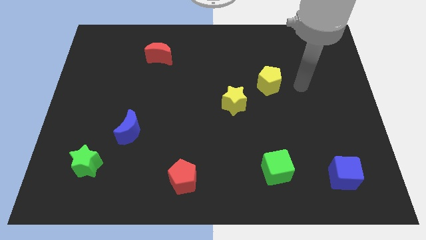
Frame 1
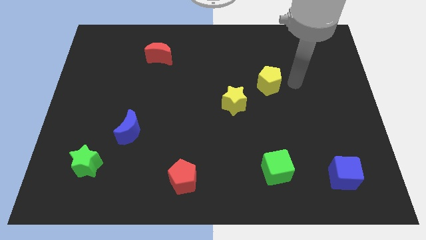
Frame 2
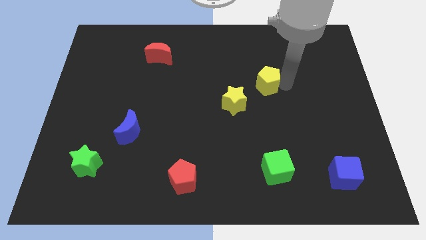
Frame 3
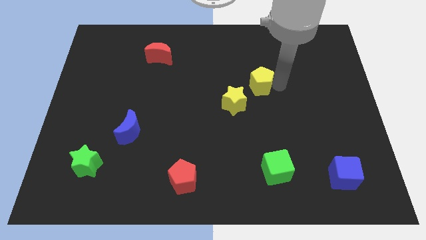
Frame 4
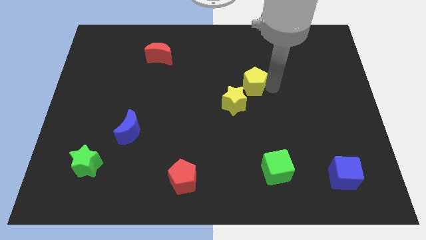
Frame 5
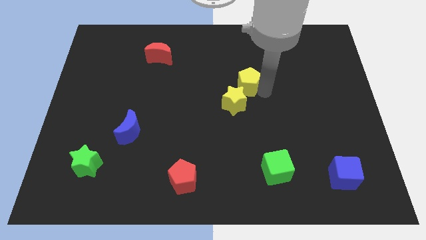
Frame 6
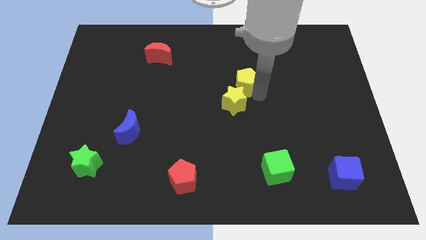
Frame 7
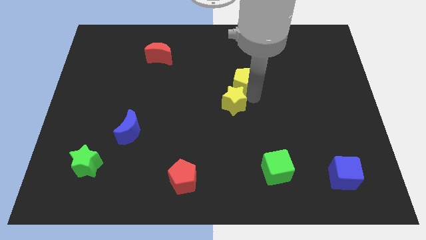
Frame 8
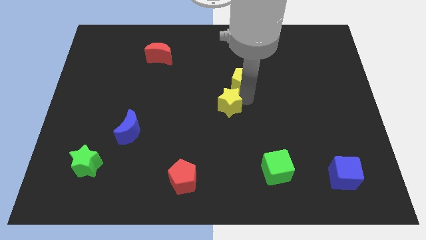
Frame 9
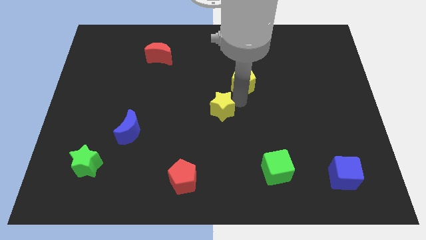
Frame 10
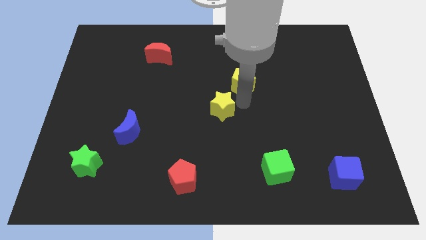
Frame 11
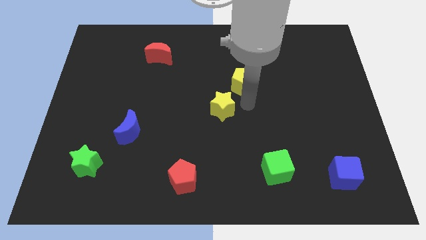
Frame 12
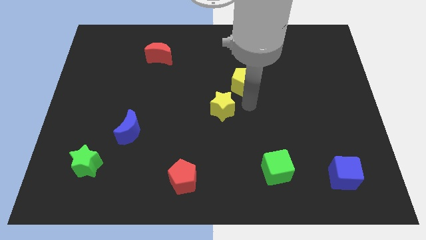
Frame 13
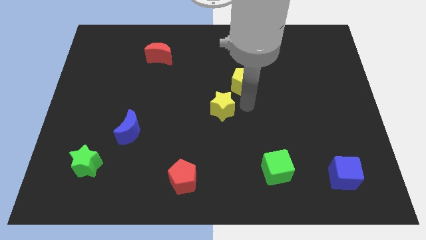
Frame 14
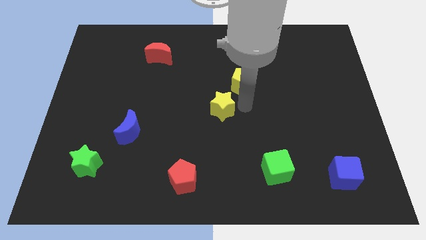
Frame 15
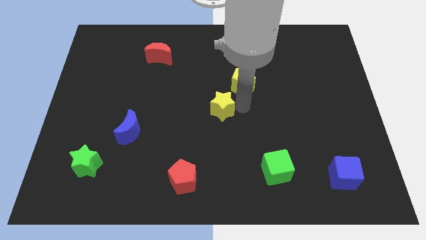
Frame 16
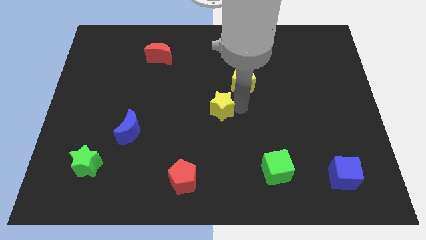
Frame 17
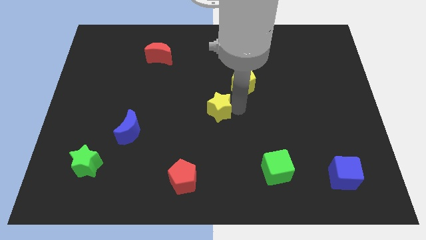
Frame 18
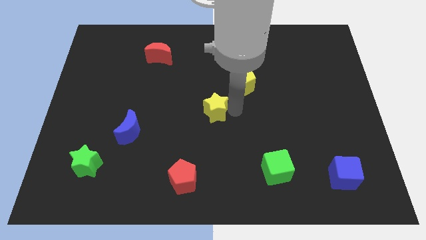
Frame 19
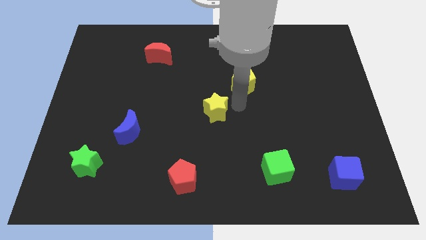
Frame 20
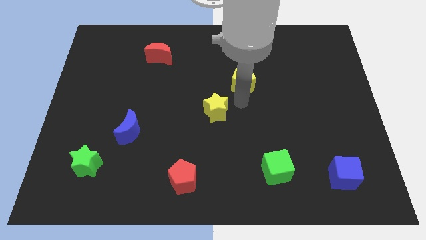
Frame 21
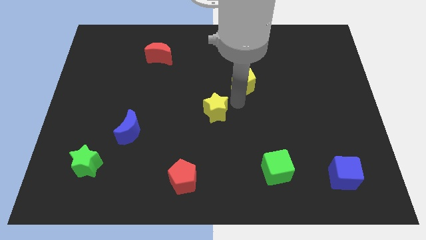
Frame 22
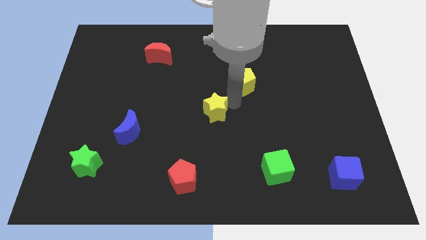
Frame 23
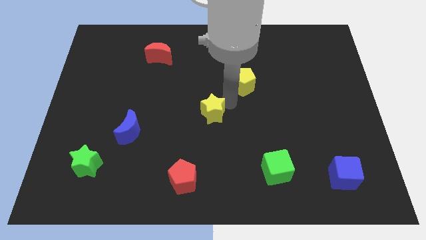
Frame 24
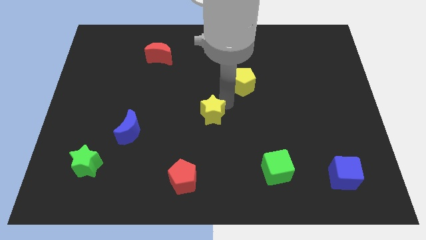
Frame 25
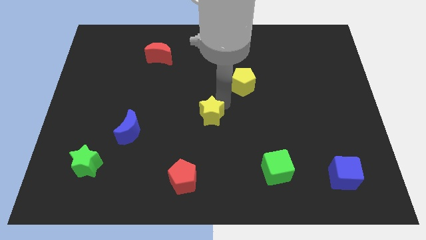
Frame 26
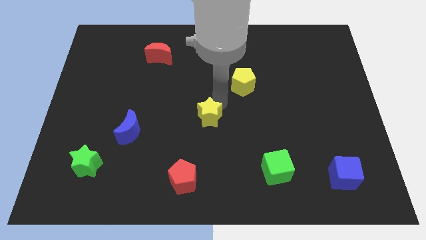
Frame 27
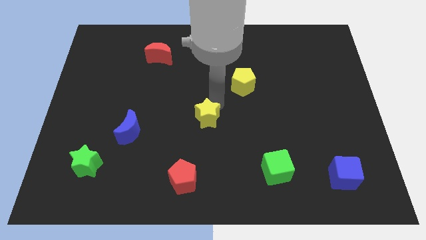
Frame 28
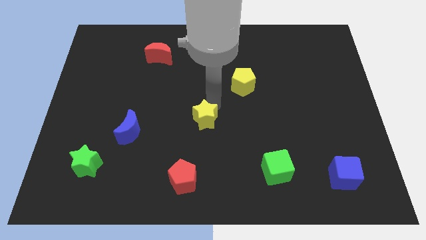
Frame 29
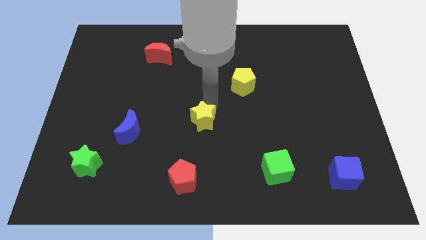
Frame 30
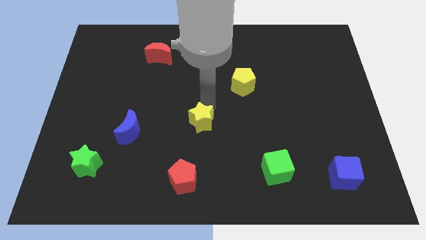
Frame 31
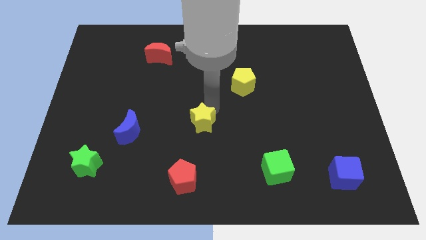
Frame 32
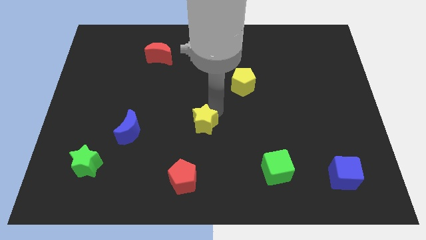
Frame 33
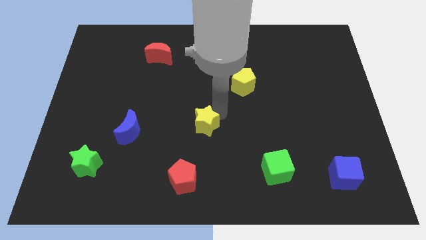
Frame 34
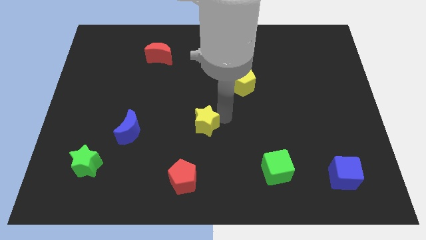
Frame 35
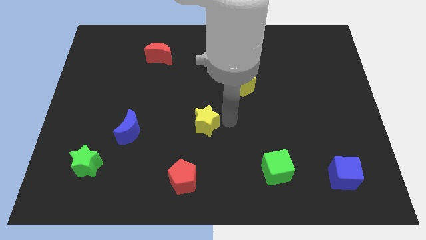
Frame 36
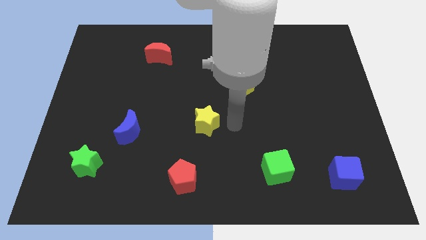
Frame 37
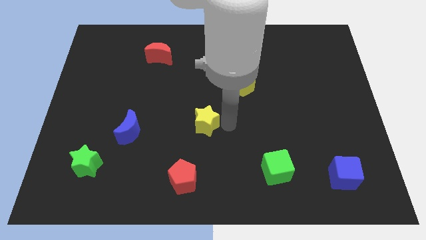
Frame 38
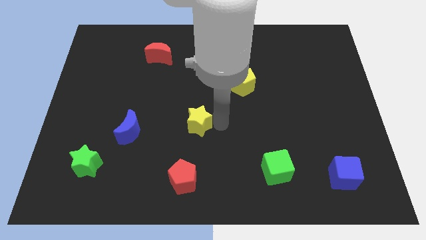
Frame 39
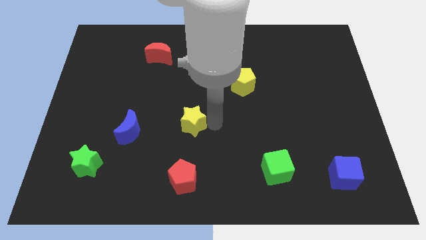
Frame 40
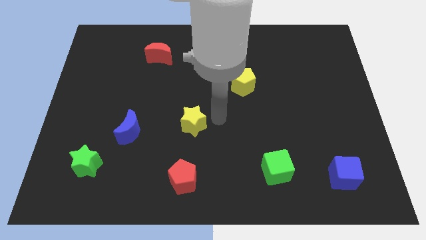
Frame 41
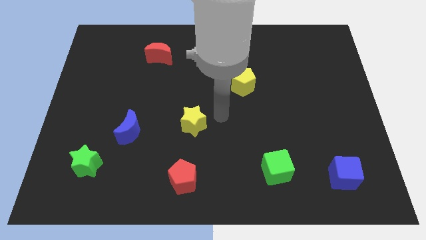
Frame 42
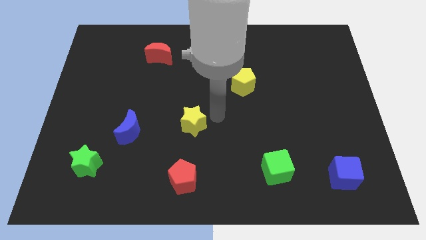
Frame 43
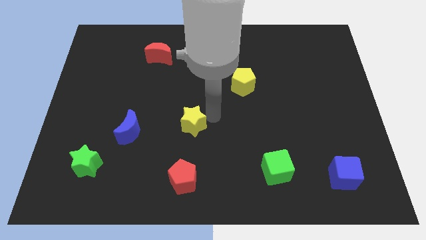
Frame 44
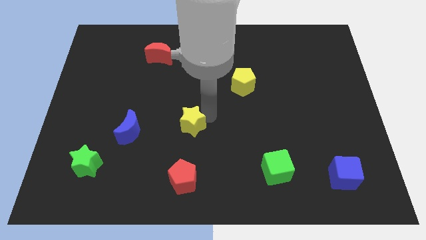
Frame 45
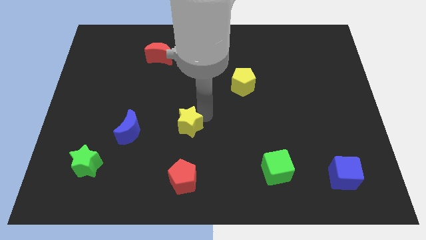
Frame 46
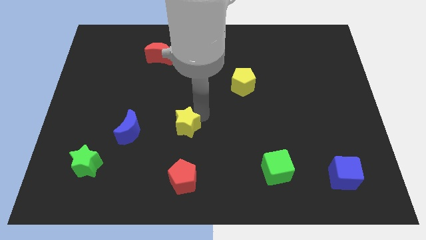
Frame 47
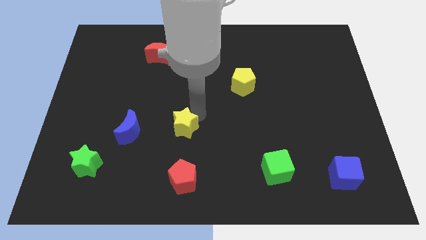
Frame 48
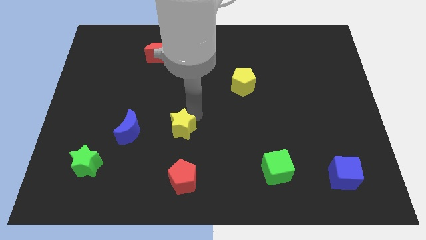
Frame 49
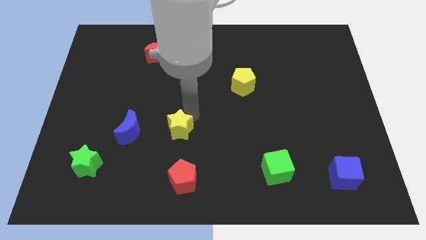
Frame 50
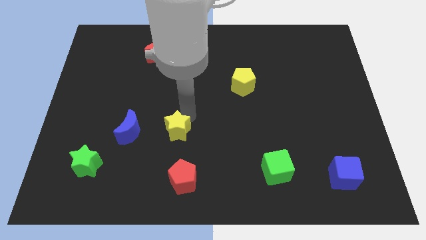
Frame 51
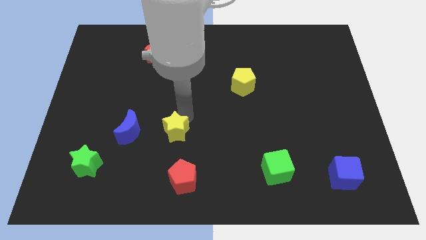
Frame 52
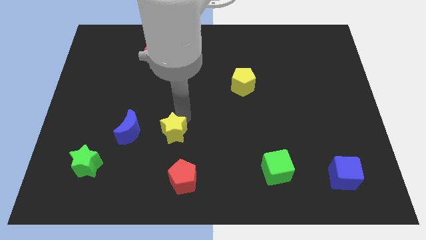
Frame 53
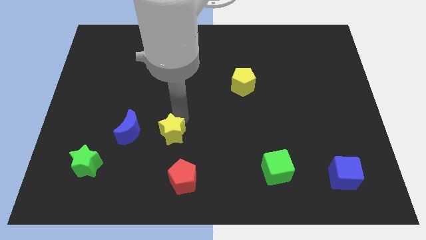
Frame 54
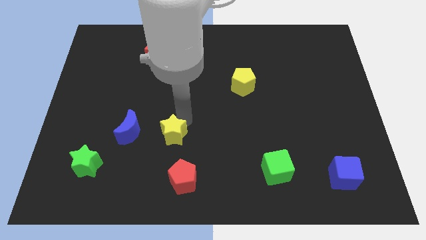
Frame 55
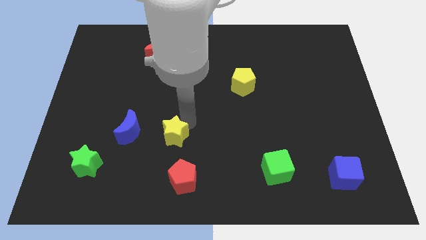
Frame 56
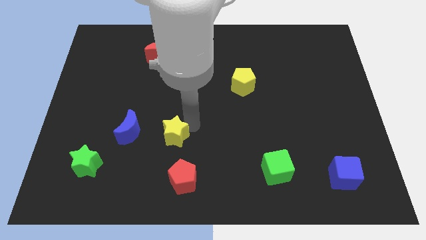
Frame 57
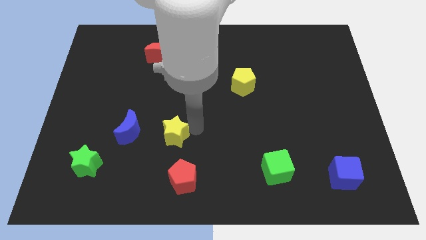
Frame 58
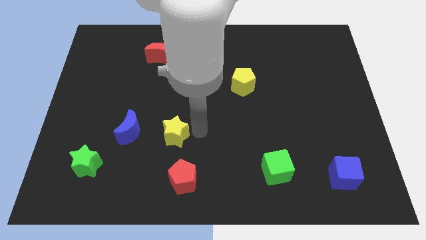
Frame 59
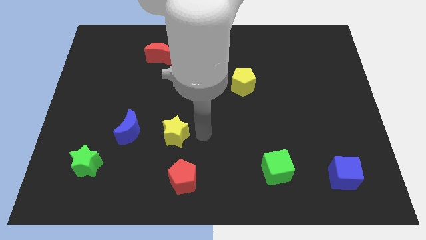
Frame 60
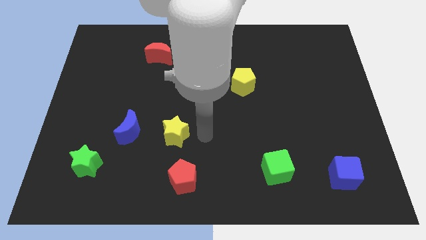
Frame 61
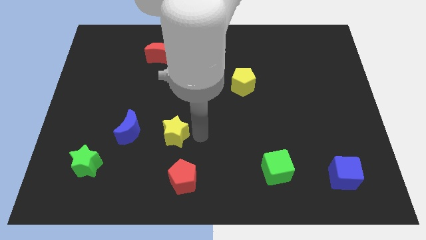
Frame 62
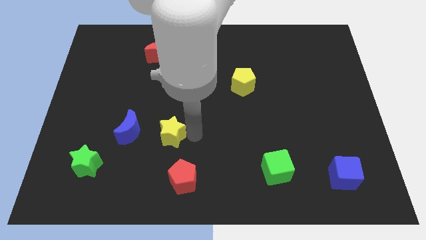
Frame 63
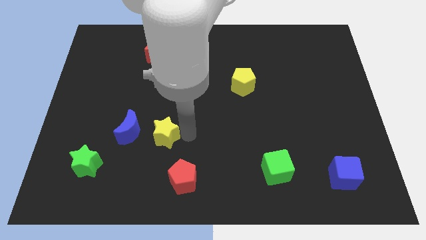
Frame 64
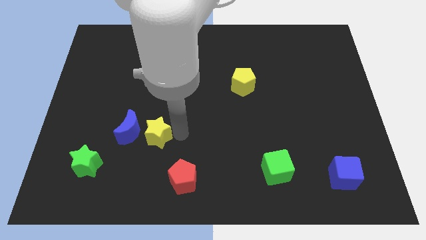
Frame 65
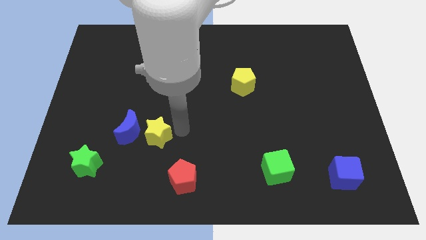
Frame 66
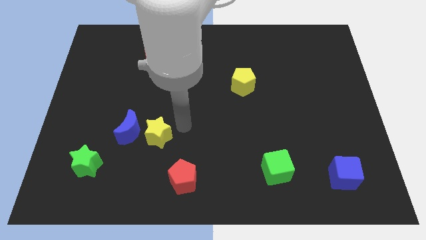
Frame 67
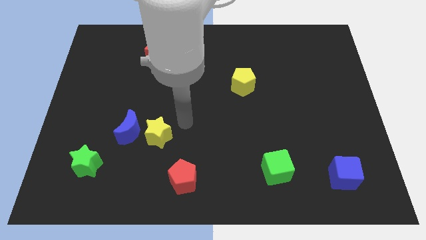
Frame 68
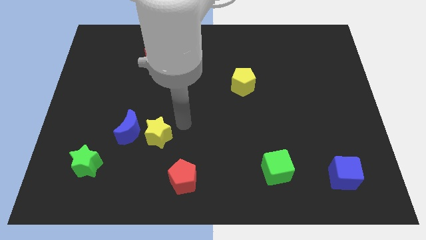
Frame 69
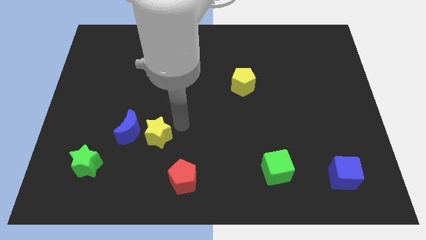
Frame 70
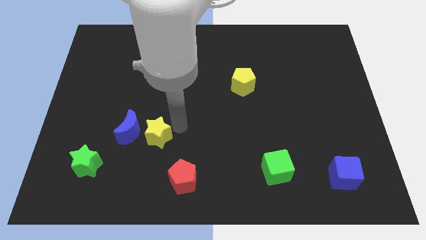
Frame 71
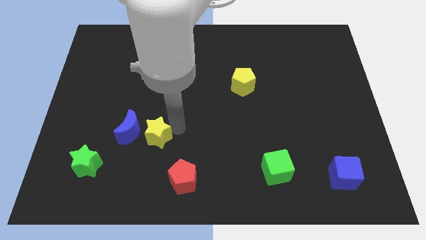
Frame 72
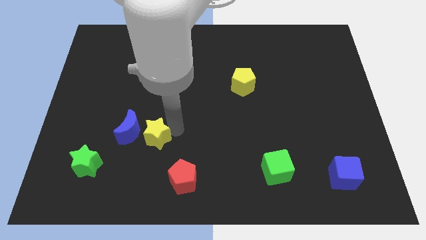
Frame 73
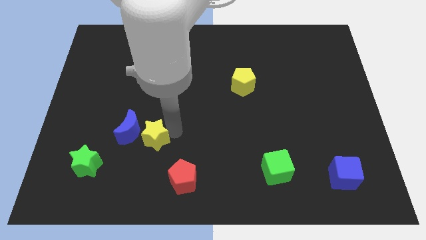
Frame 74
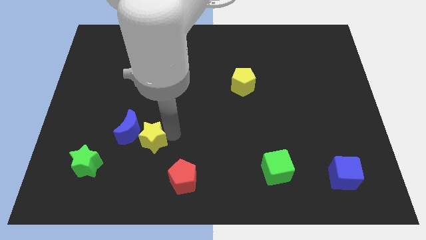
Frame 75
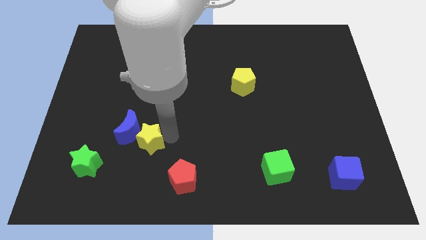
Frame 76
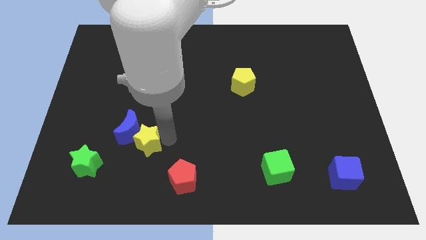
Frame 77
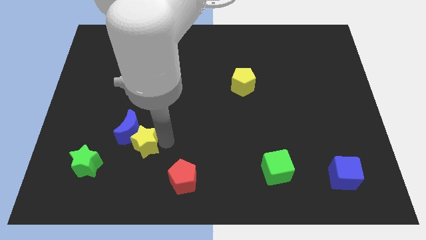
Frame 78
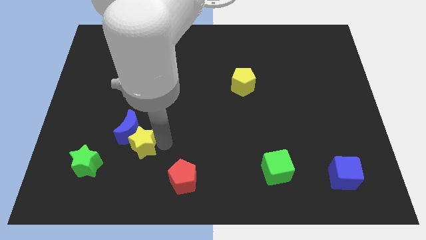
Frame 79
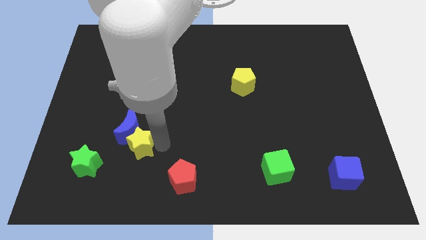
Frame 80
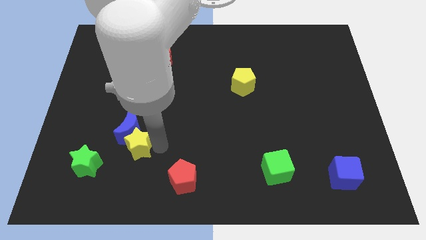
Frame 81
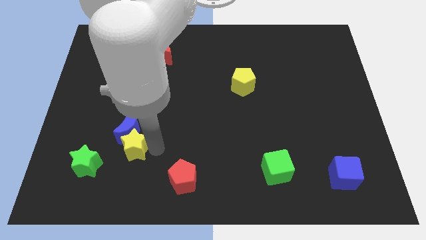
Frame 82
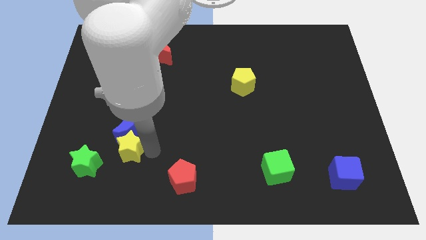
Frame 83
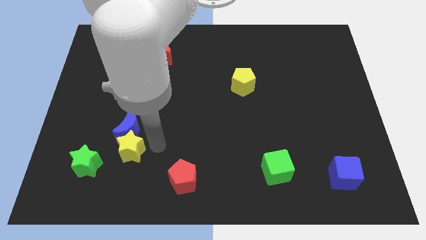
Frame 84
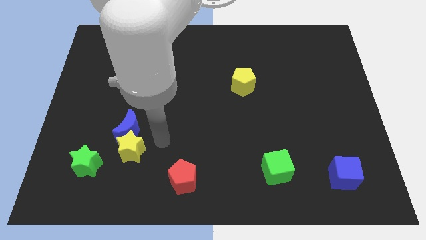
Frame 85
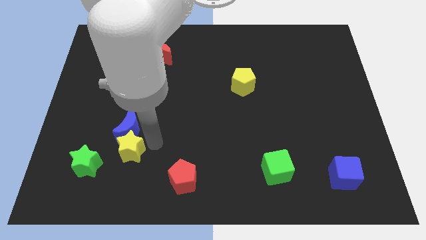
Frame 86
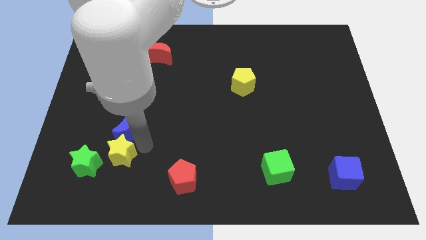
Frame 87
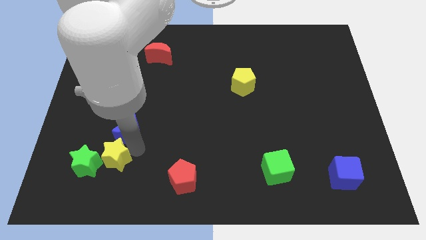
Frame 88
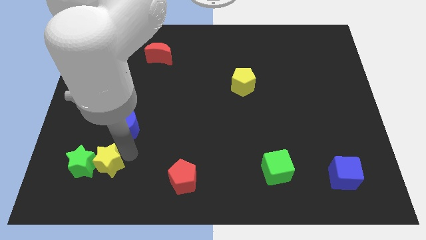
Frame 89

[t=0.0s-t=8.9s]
move the yellow star to the green star
